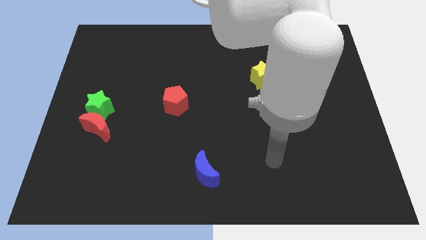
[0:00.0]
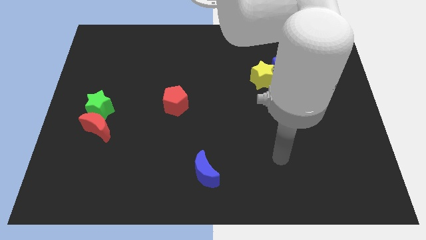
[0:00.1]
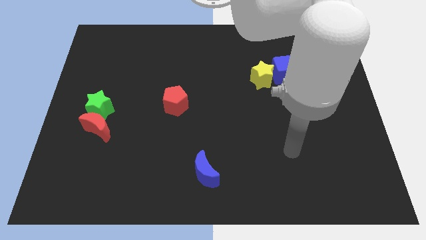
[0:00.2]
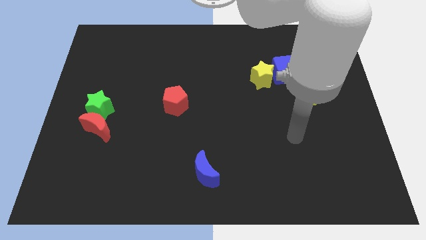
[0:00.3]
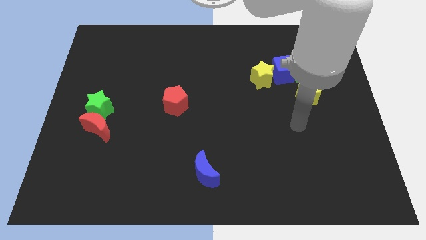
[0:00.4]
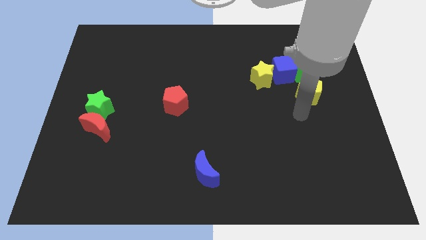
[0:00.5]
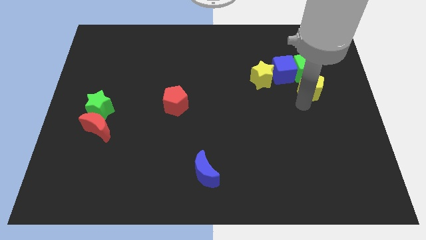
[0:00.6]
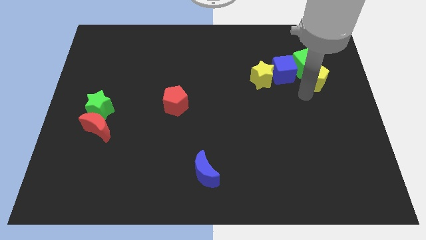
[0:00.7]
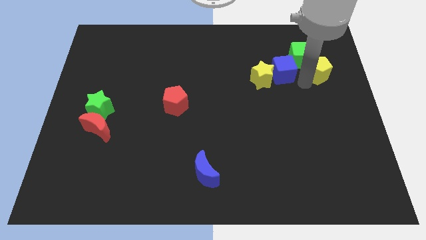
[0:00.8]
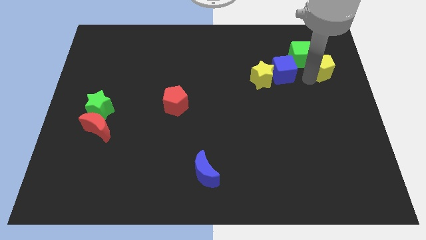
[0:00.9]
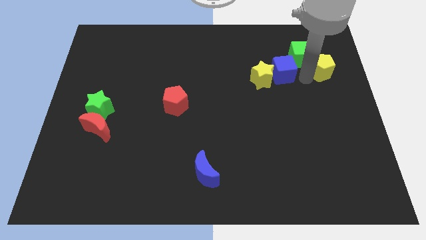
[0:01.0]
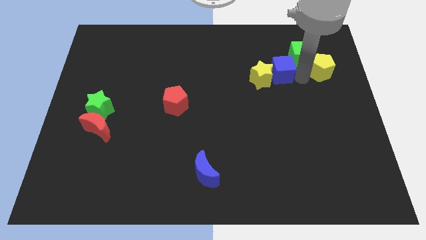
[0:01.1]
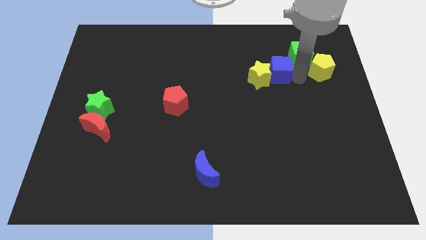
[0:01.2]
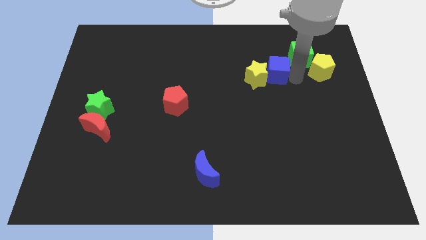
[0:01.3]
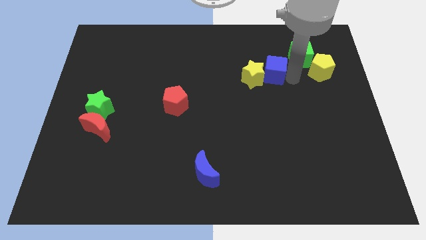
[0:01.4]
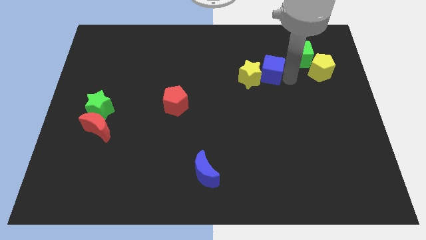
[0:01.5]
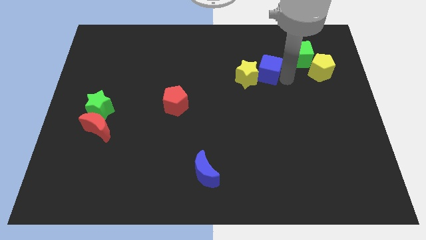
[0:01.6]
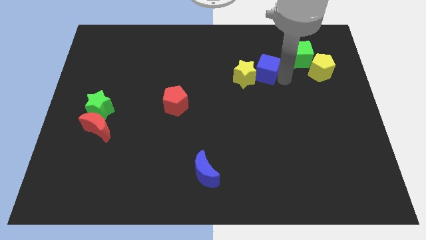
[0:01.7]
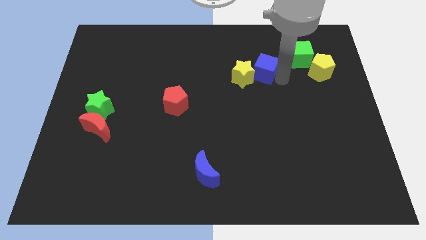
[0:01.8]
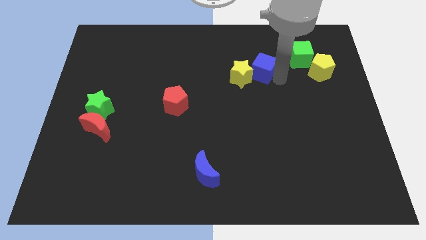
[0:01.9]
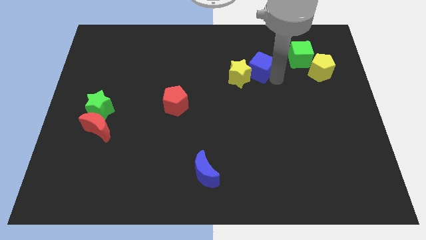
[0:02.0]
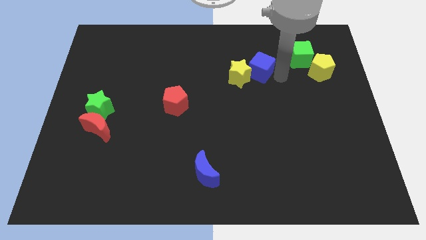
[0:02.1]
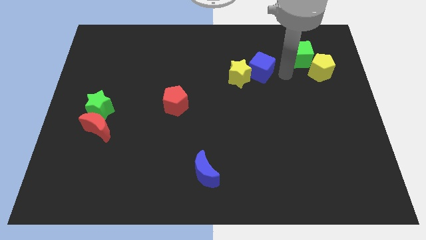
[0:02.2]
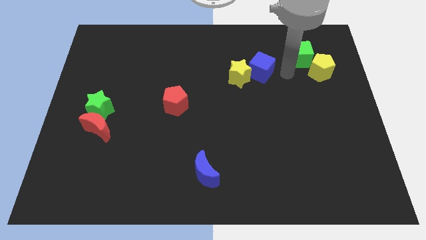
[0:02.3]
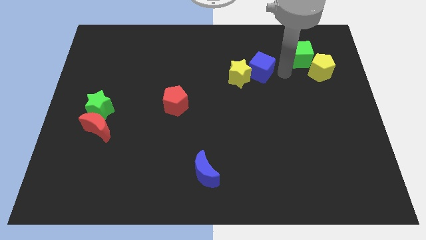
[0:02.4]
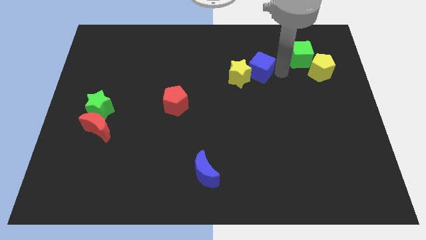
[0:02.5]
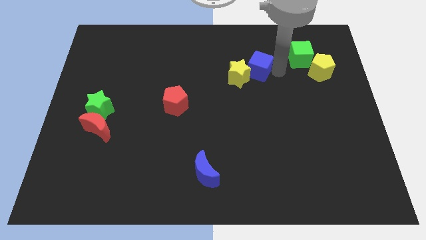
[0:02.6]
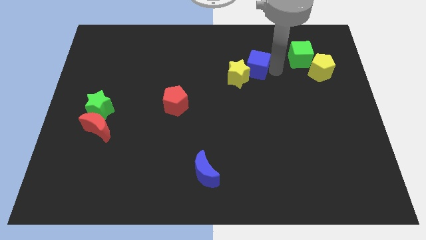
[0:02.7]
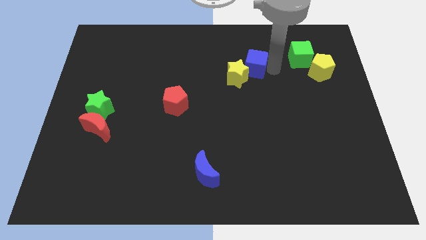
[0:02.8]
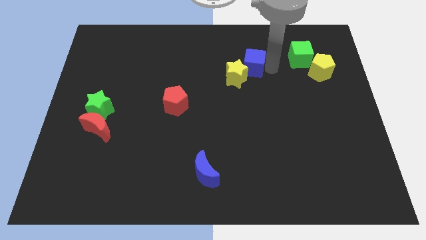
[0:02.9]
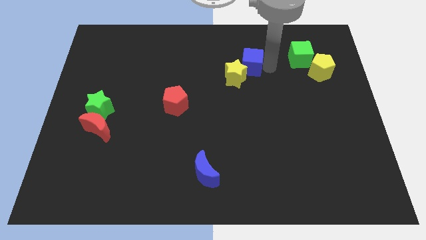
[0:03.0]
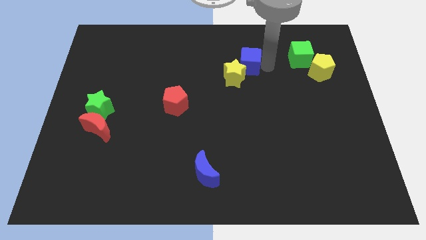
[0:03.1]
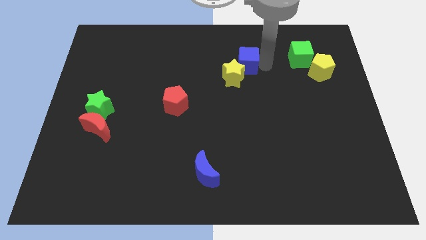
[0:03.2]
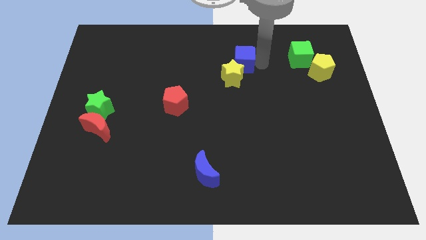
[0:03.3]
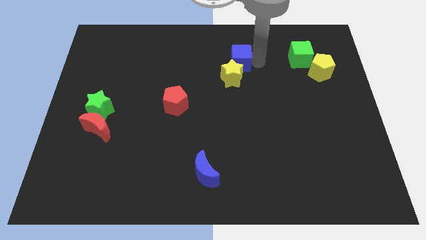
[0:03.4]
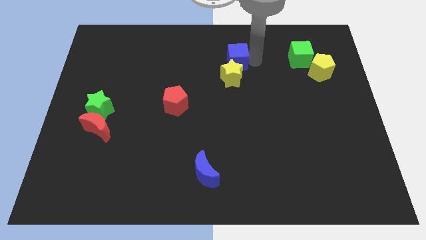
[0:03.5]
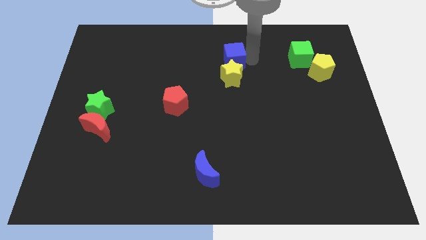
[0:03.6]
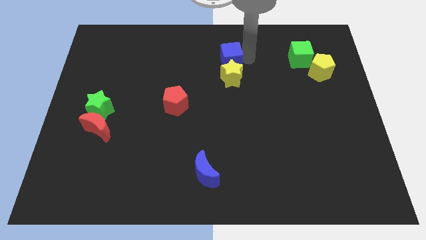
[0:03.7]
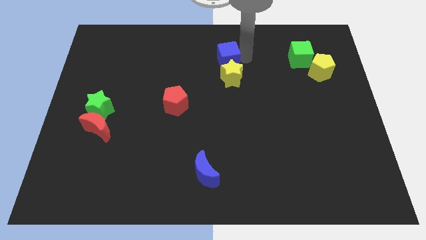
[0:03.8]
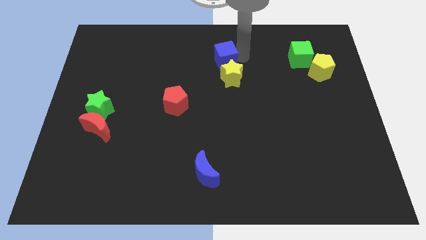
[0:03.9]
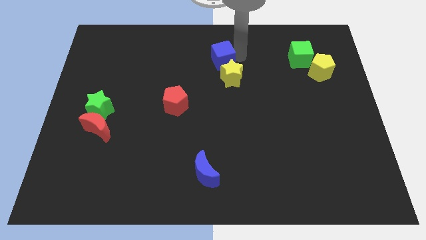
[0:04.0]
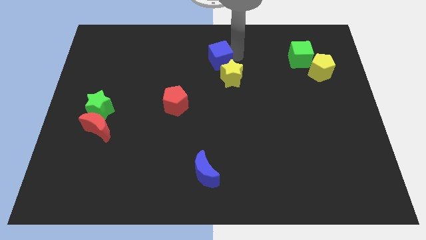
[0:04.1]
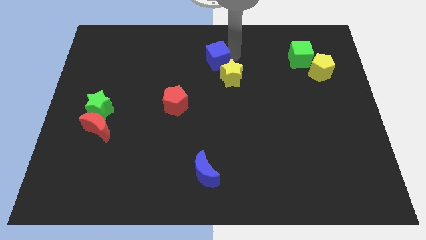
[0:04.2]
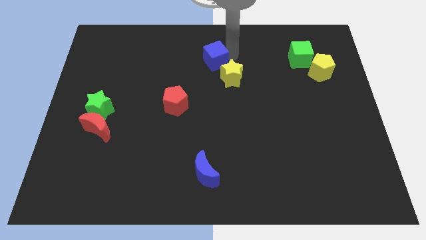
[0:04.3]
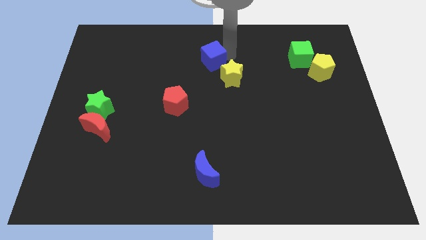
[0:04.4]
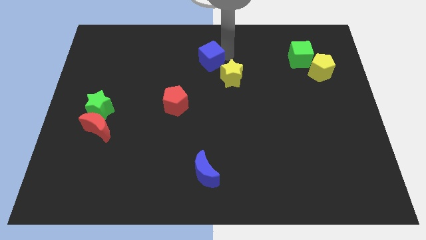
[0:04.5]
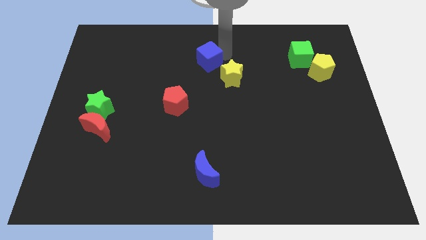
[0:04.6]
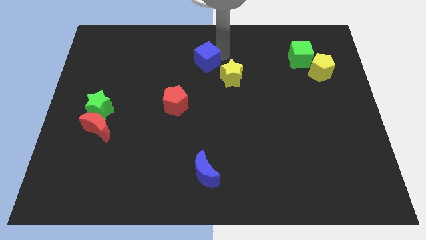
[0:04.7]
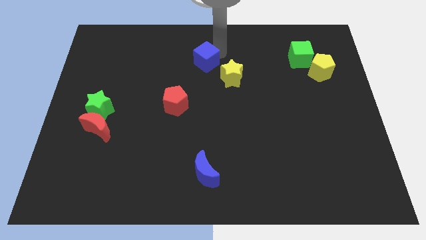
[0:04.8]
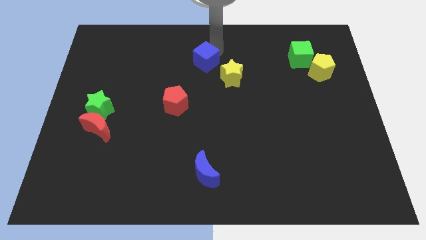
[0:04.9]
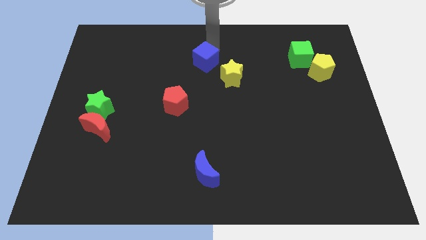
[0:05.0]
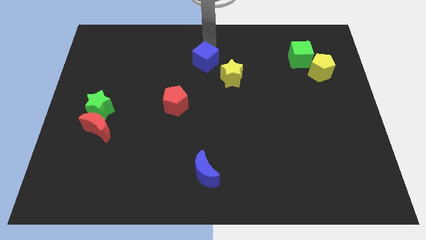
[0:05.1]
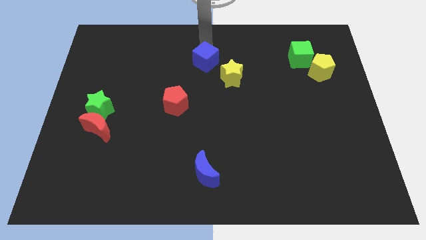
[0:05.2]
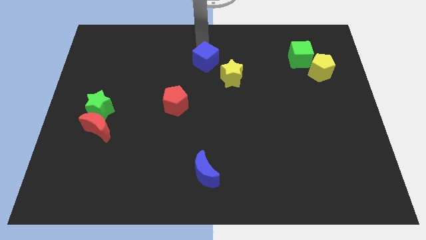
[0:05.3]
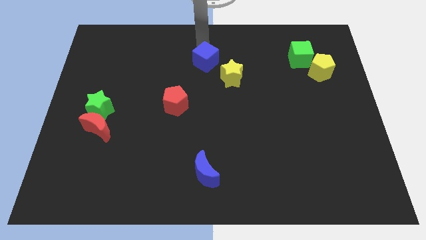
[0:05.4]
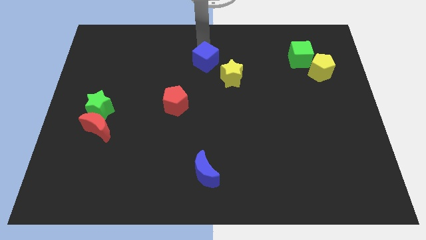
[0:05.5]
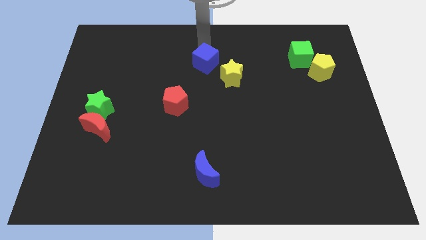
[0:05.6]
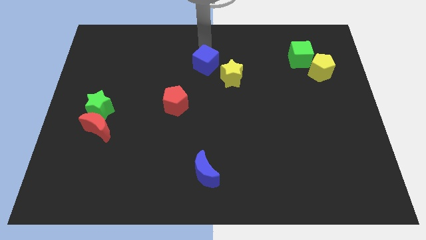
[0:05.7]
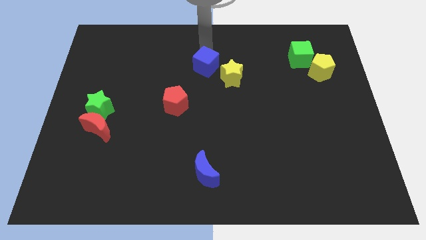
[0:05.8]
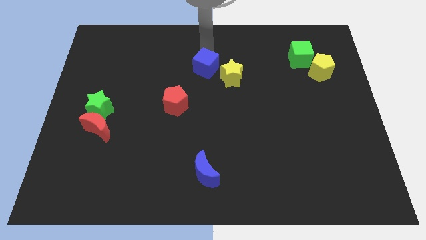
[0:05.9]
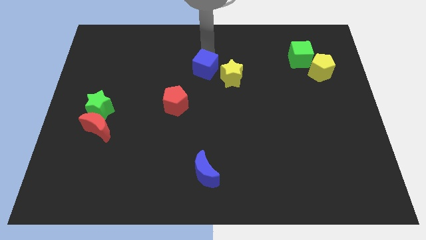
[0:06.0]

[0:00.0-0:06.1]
slide the blue cube to the left

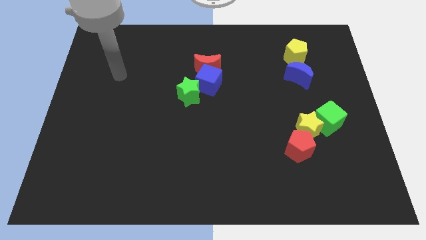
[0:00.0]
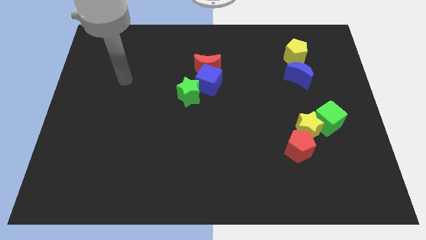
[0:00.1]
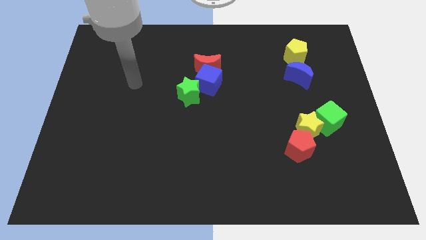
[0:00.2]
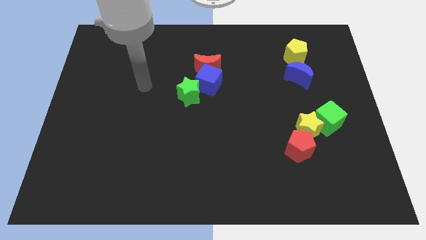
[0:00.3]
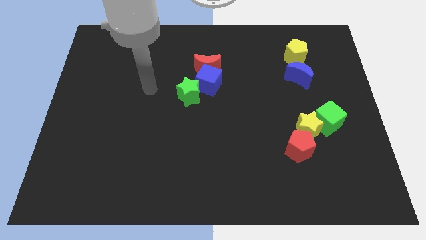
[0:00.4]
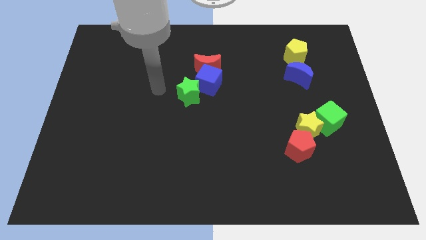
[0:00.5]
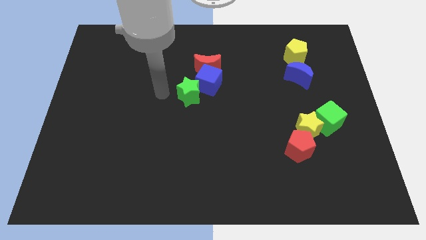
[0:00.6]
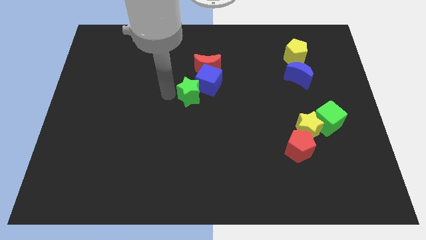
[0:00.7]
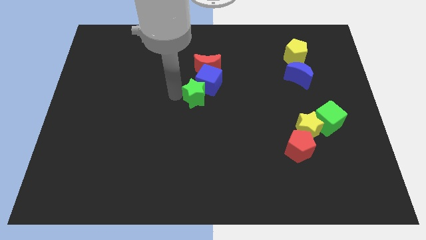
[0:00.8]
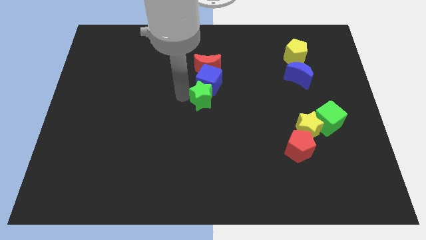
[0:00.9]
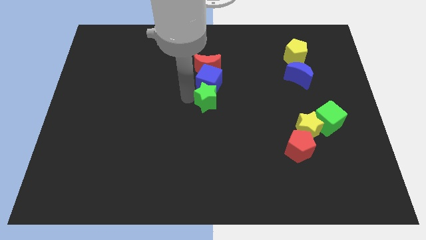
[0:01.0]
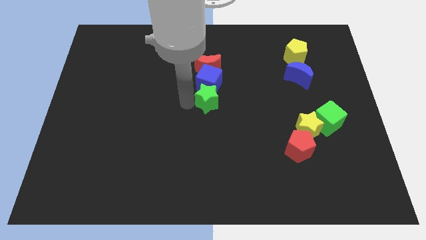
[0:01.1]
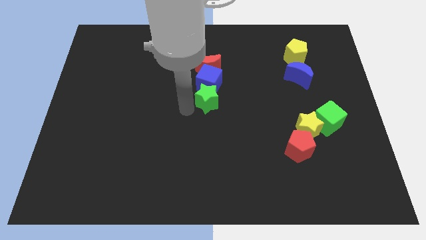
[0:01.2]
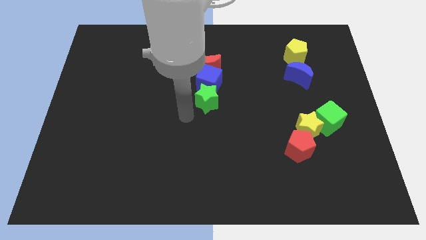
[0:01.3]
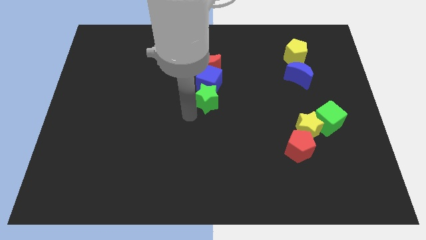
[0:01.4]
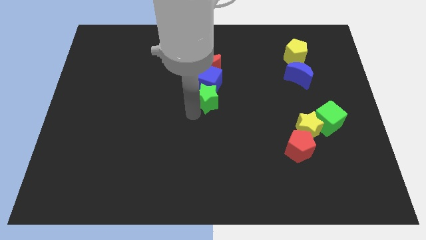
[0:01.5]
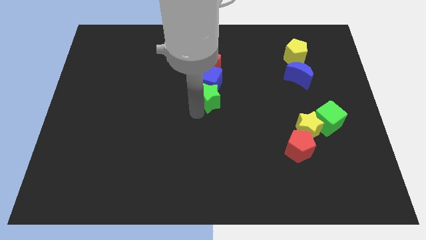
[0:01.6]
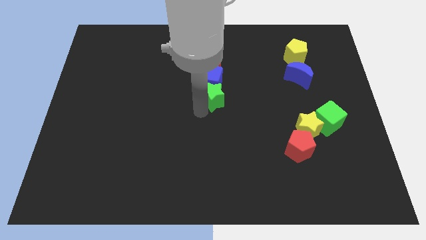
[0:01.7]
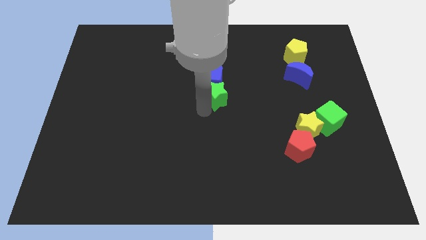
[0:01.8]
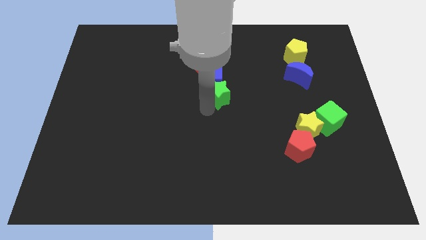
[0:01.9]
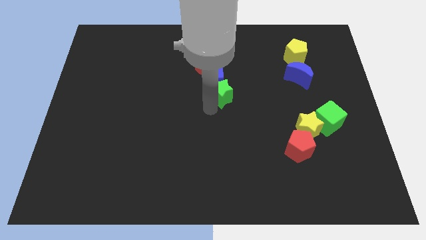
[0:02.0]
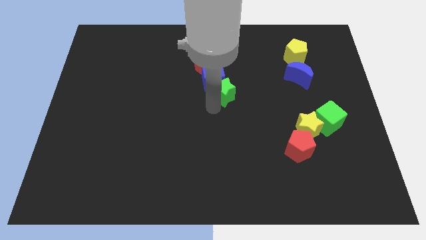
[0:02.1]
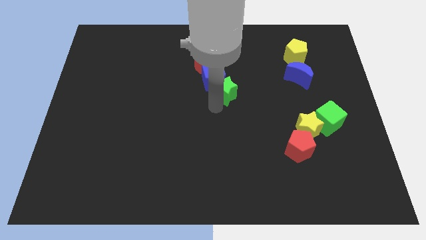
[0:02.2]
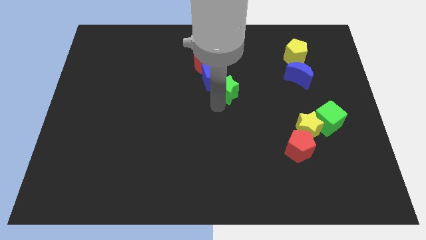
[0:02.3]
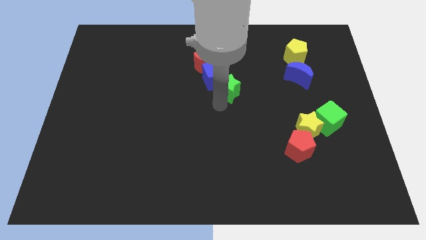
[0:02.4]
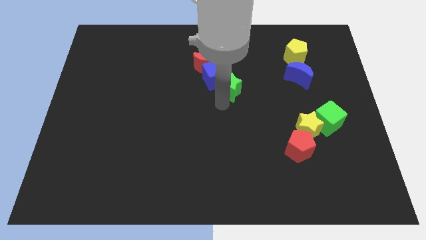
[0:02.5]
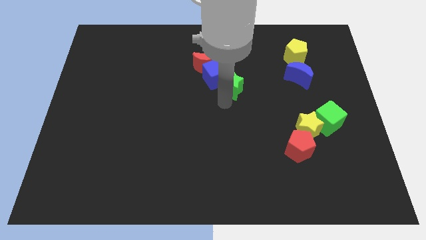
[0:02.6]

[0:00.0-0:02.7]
push the green star upwards and then right a little
